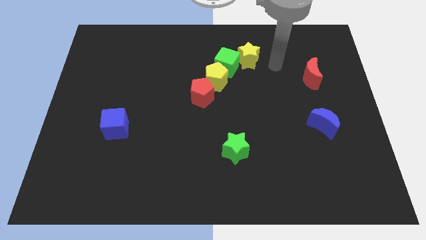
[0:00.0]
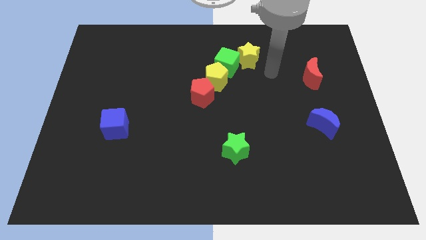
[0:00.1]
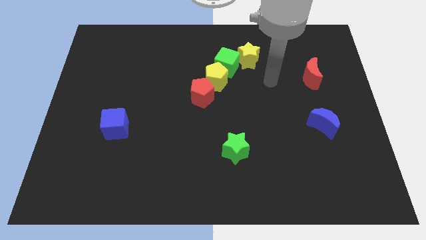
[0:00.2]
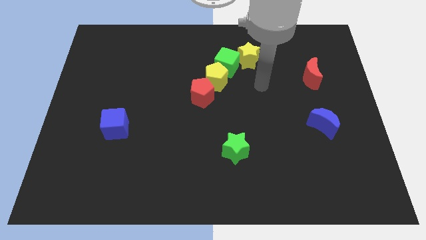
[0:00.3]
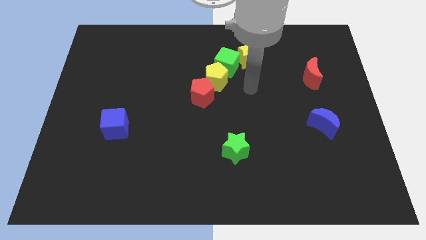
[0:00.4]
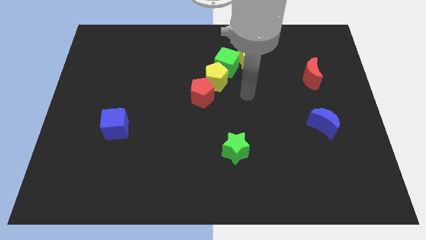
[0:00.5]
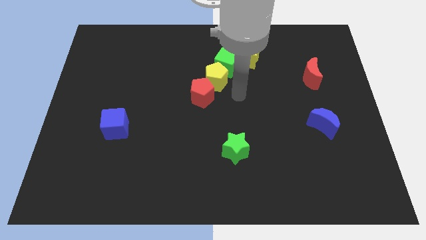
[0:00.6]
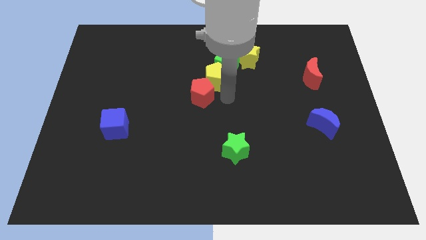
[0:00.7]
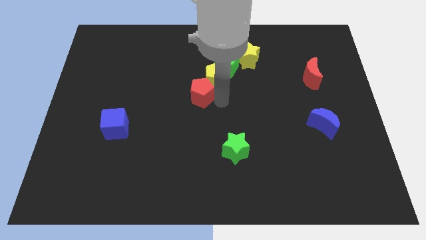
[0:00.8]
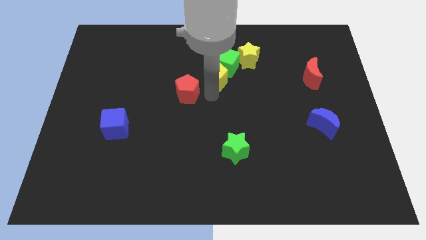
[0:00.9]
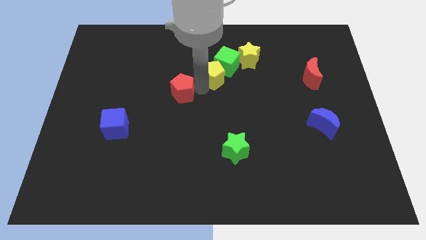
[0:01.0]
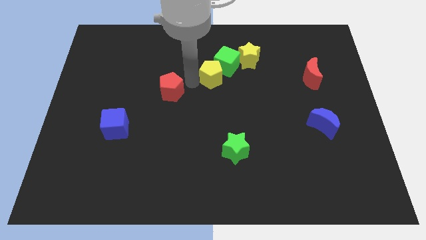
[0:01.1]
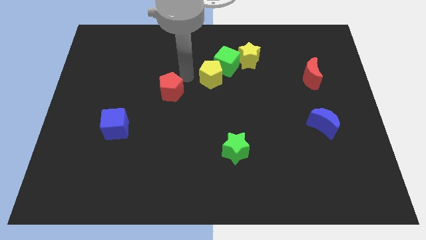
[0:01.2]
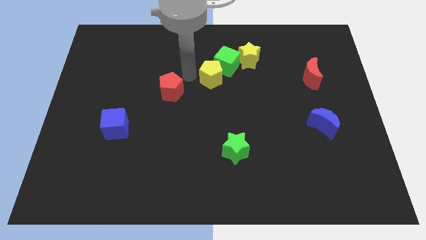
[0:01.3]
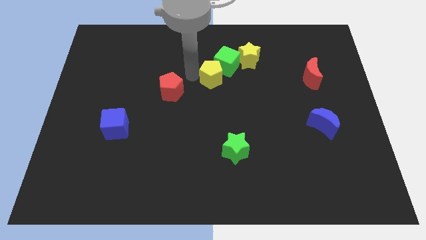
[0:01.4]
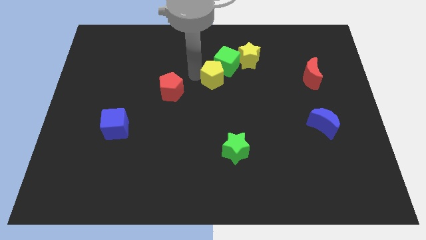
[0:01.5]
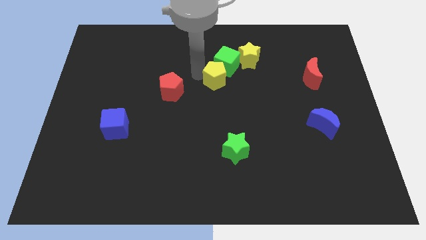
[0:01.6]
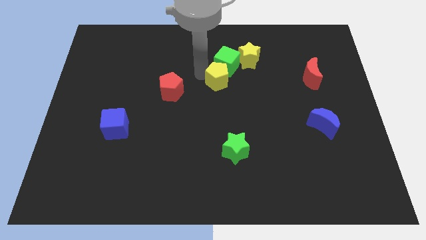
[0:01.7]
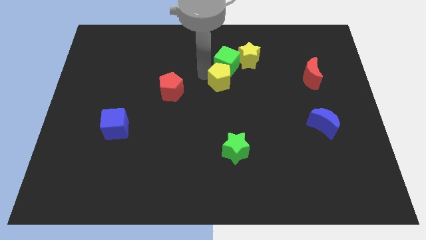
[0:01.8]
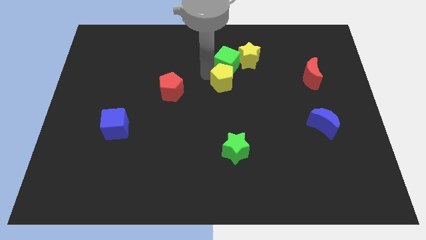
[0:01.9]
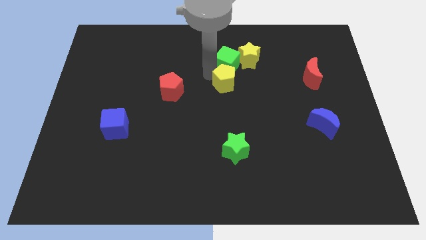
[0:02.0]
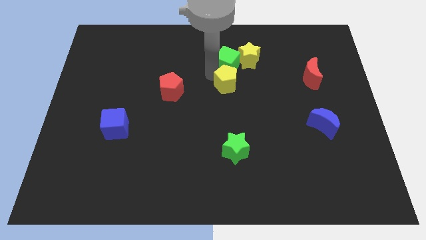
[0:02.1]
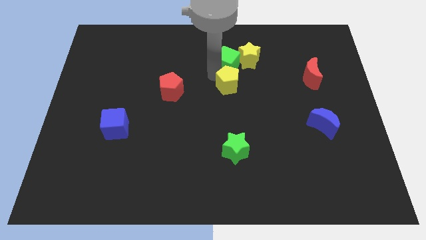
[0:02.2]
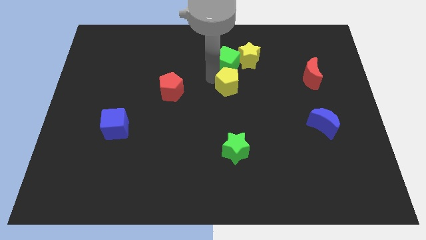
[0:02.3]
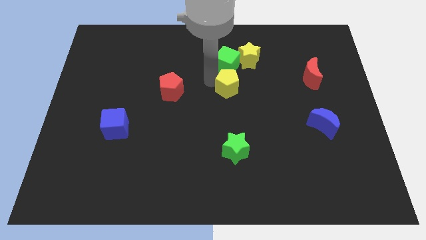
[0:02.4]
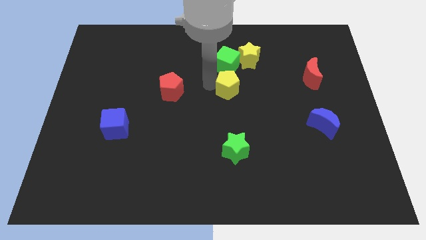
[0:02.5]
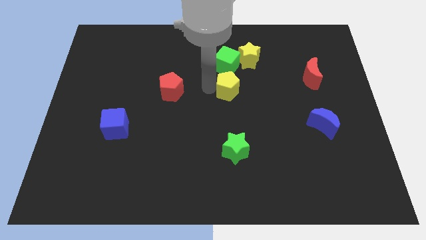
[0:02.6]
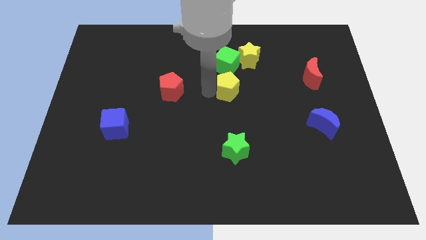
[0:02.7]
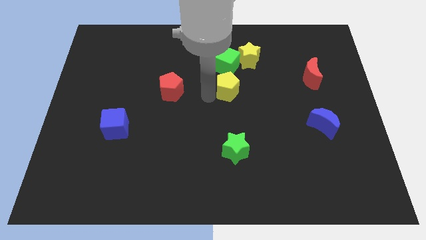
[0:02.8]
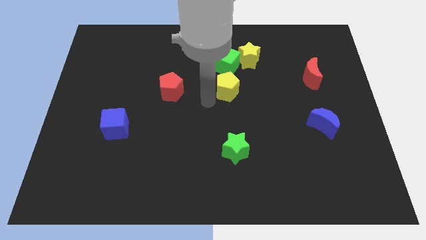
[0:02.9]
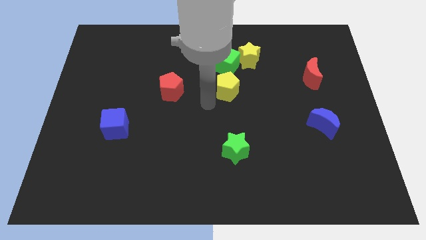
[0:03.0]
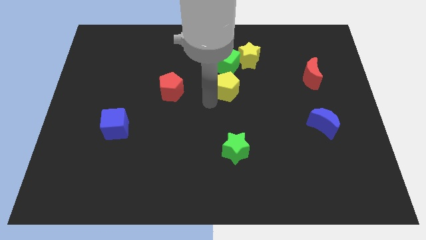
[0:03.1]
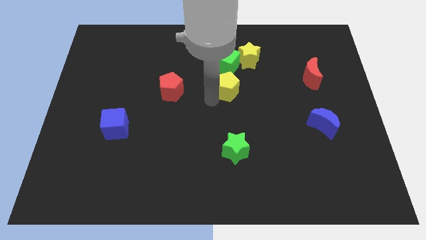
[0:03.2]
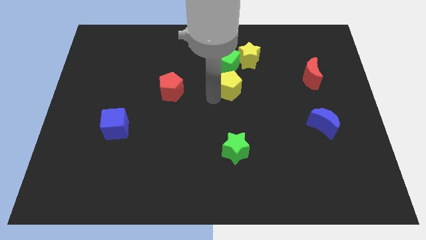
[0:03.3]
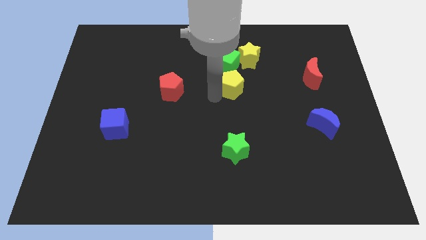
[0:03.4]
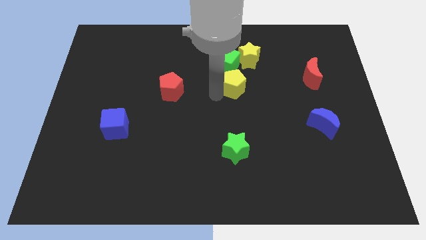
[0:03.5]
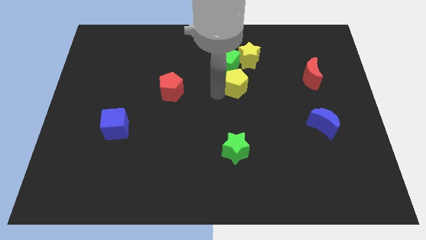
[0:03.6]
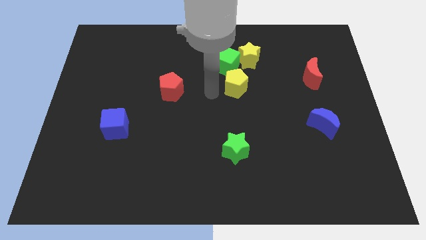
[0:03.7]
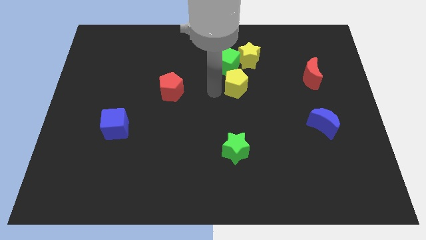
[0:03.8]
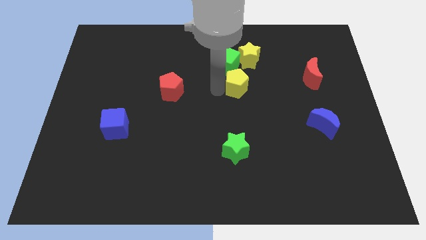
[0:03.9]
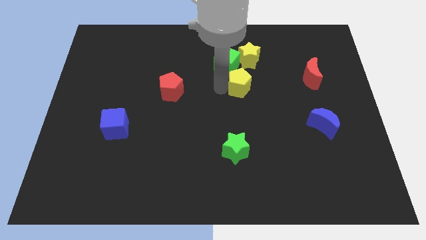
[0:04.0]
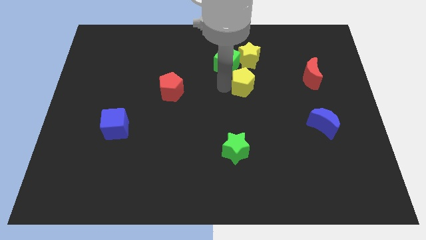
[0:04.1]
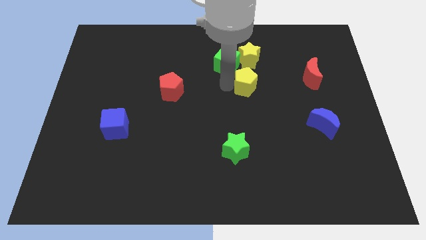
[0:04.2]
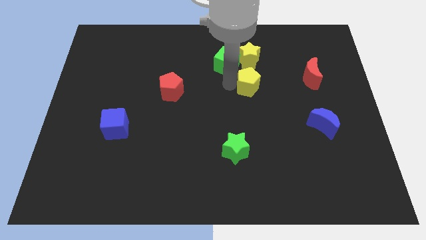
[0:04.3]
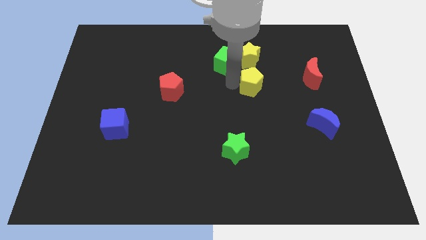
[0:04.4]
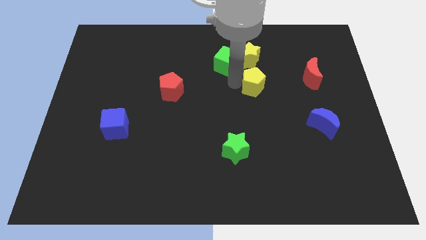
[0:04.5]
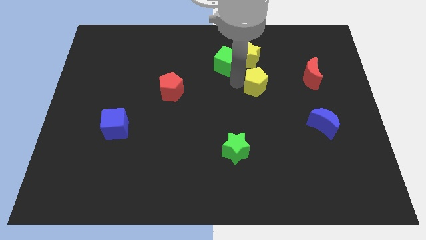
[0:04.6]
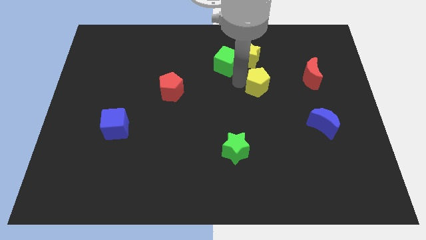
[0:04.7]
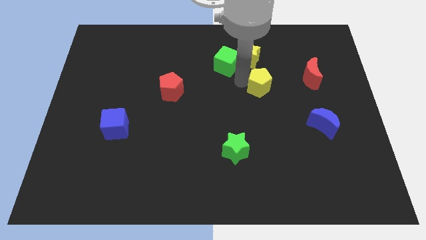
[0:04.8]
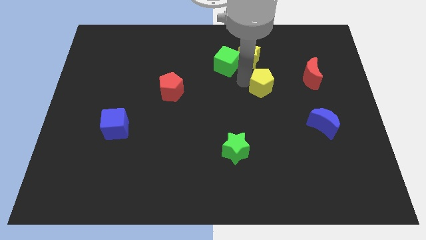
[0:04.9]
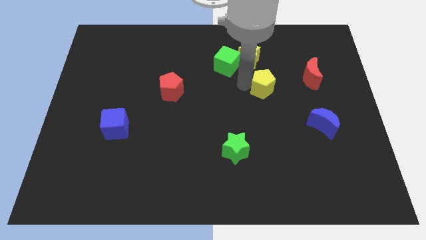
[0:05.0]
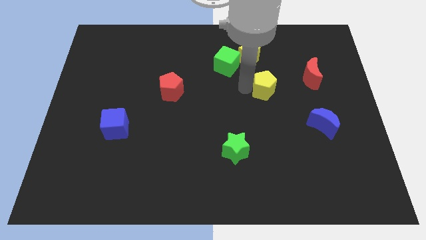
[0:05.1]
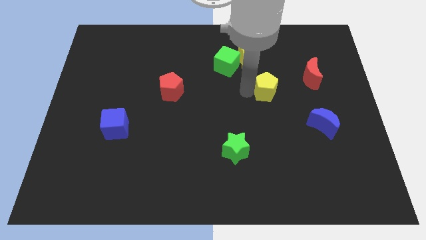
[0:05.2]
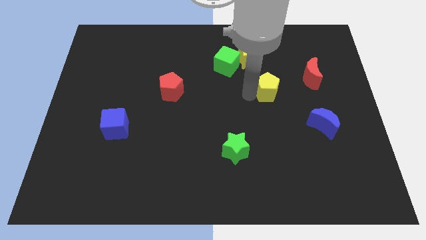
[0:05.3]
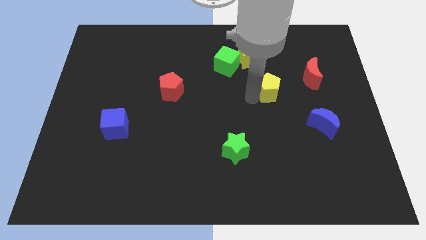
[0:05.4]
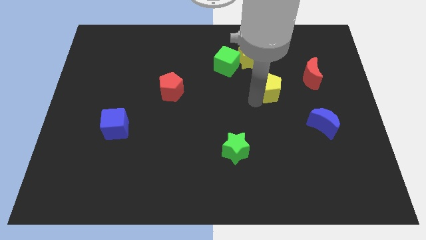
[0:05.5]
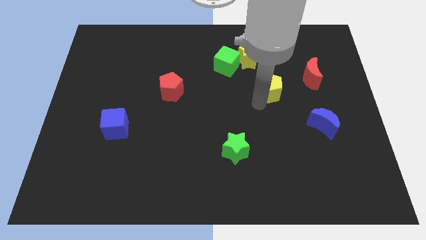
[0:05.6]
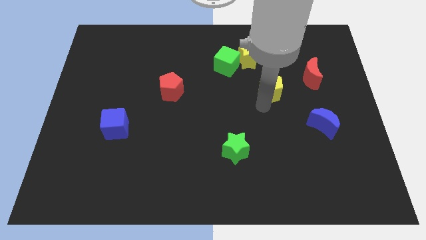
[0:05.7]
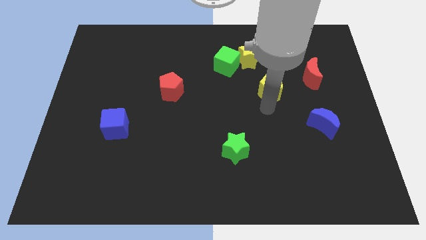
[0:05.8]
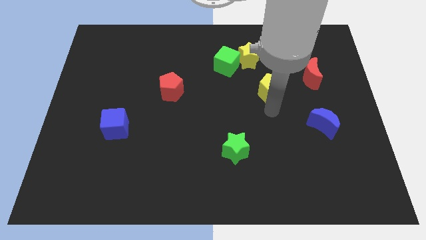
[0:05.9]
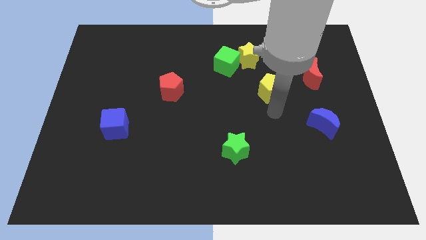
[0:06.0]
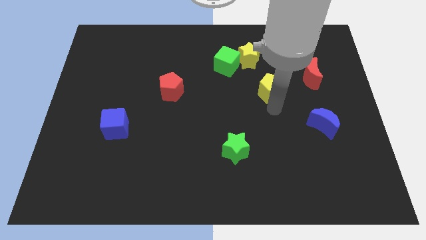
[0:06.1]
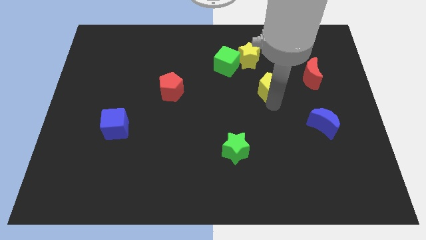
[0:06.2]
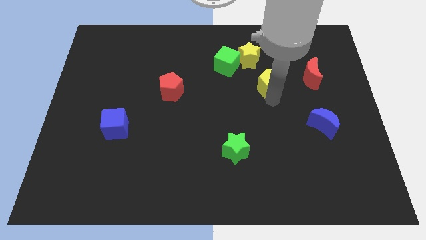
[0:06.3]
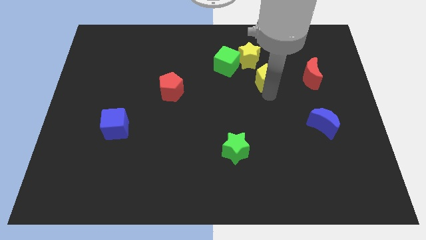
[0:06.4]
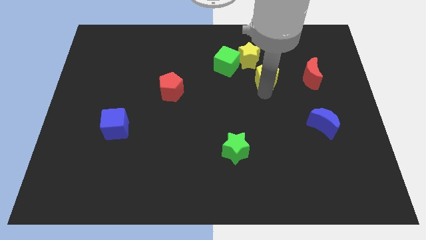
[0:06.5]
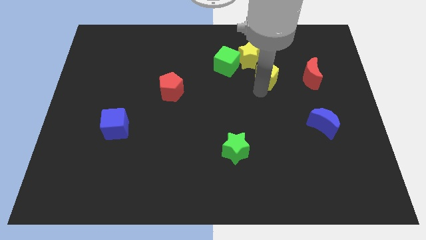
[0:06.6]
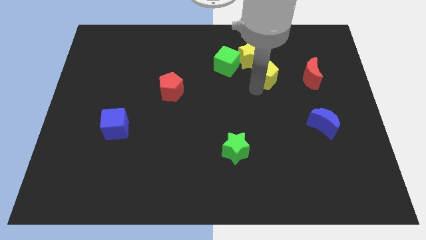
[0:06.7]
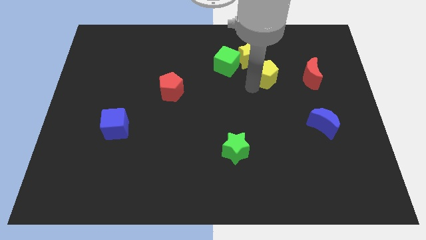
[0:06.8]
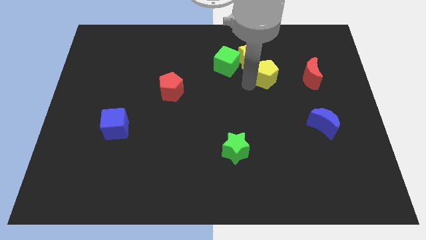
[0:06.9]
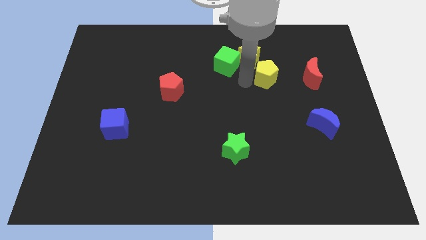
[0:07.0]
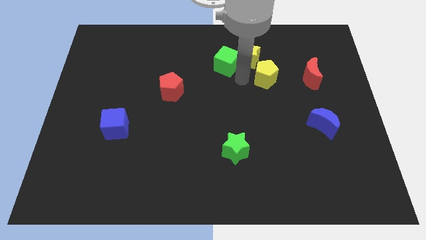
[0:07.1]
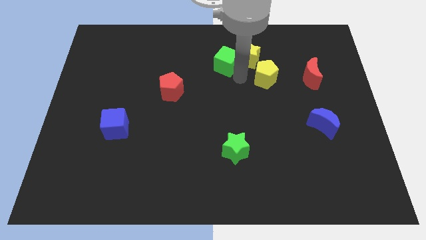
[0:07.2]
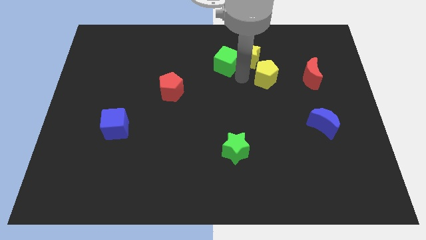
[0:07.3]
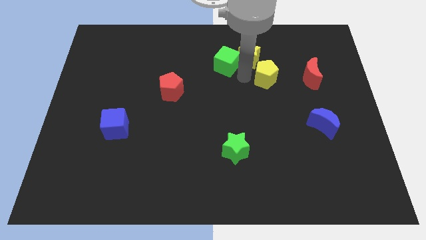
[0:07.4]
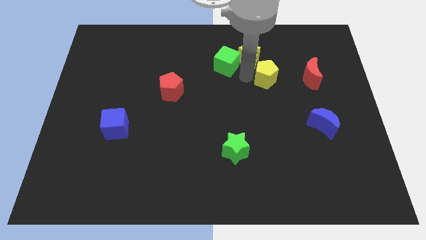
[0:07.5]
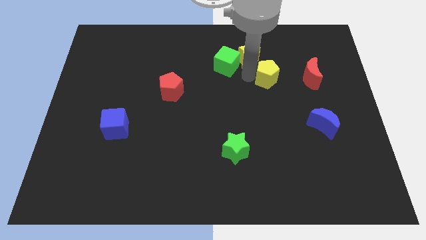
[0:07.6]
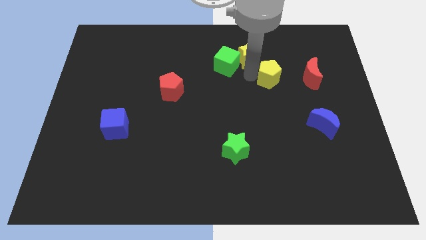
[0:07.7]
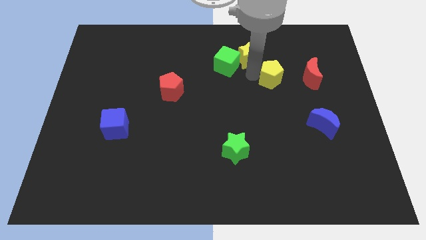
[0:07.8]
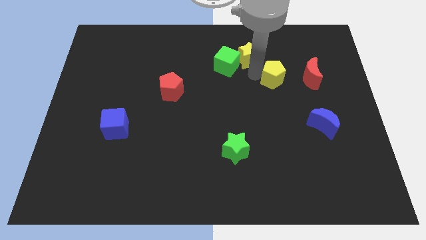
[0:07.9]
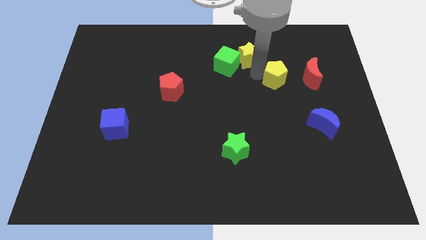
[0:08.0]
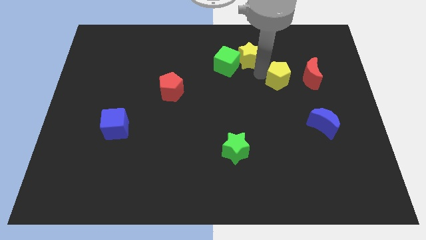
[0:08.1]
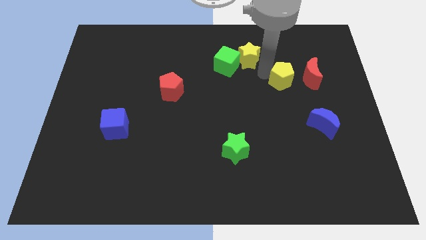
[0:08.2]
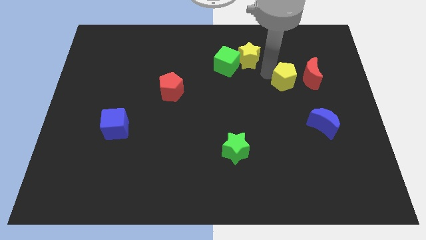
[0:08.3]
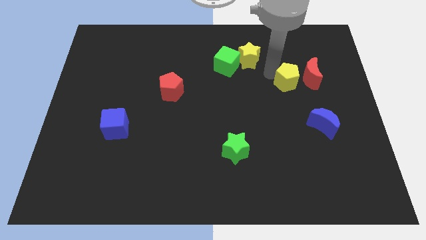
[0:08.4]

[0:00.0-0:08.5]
move the yellow pentagon close to the red moon
